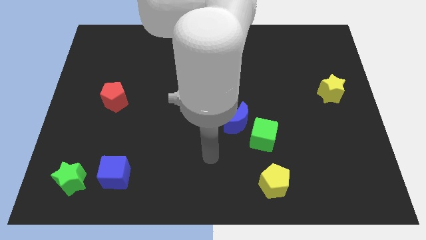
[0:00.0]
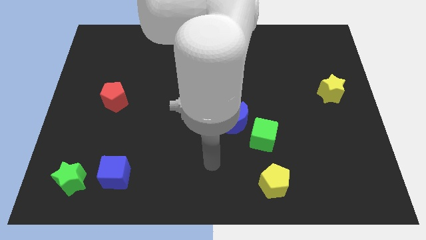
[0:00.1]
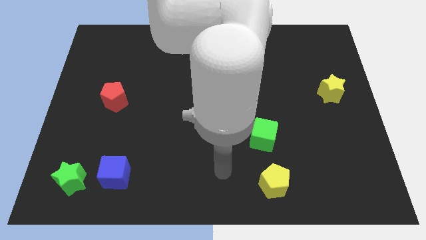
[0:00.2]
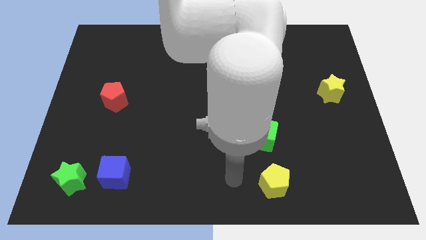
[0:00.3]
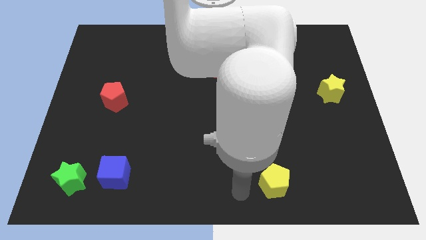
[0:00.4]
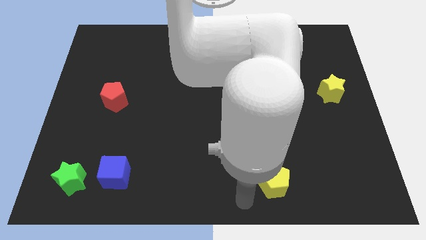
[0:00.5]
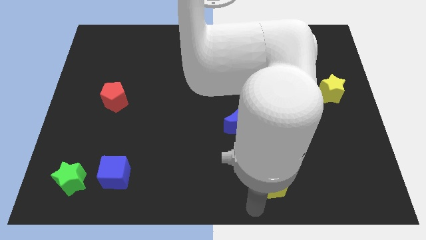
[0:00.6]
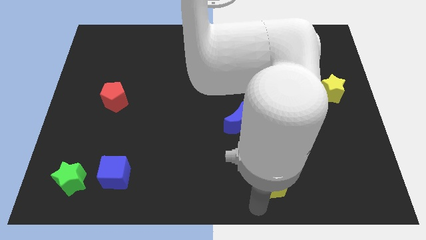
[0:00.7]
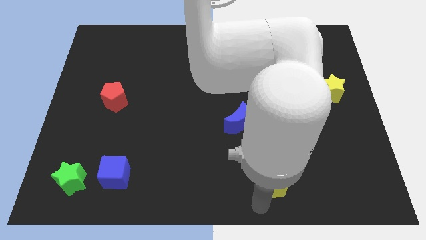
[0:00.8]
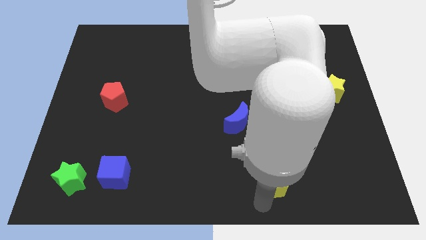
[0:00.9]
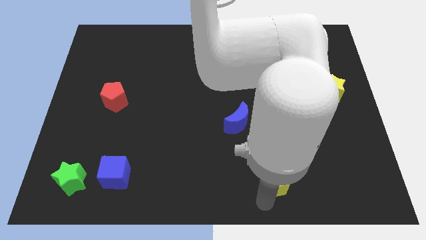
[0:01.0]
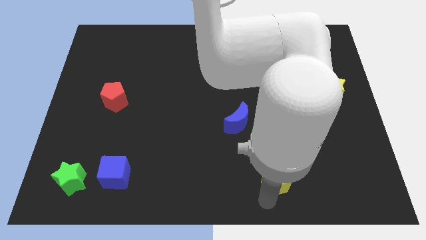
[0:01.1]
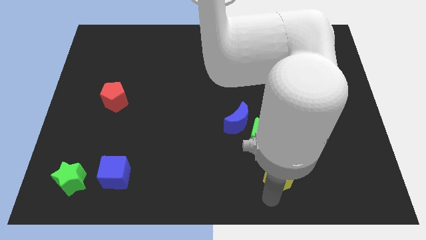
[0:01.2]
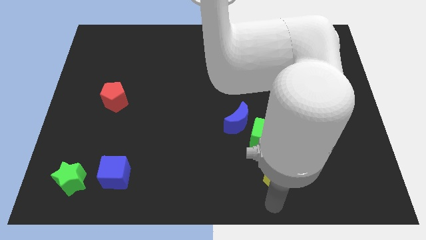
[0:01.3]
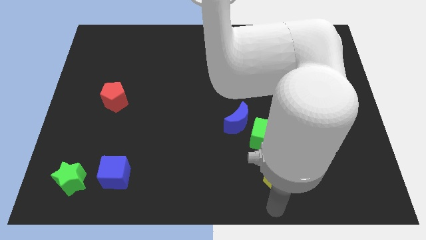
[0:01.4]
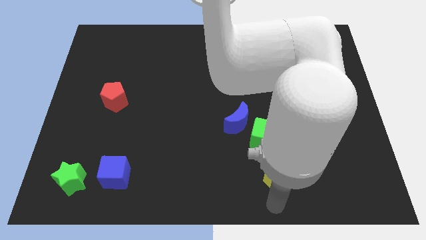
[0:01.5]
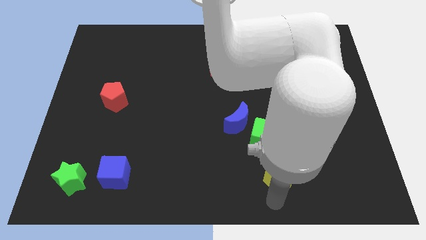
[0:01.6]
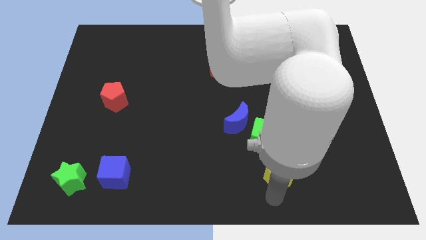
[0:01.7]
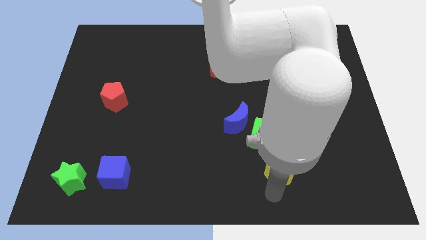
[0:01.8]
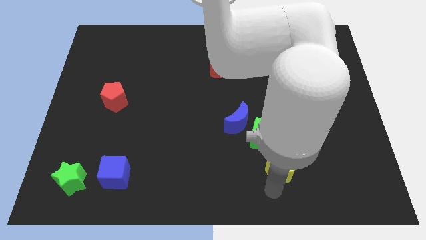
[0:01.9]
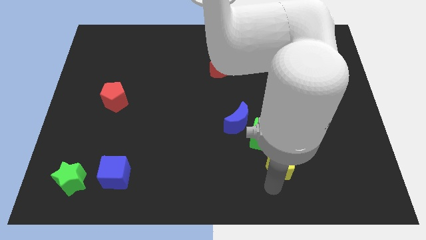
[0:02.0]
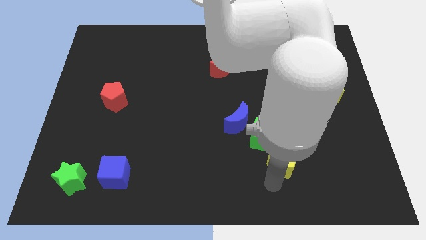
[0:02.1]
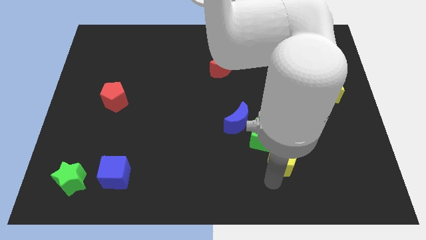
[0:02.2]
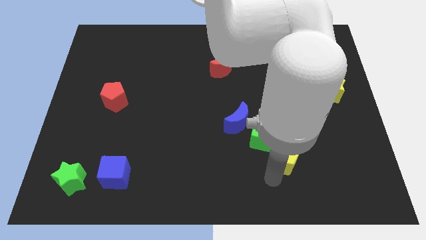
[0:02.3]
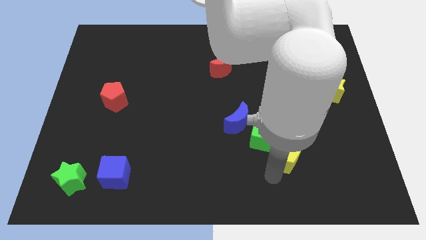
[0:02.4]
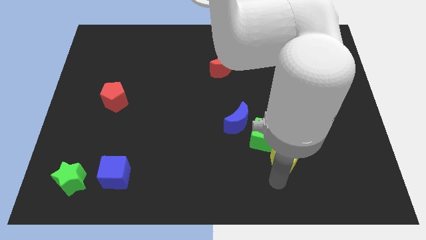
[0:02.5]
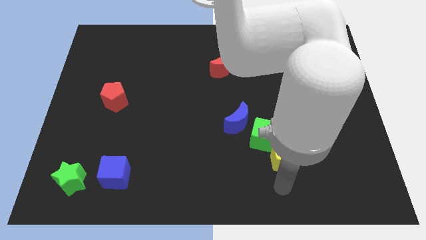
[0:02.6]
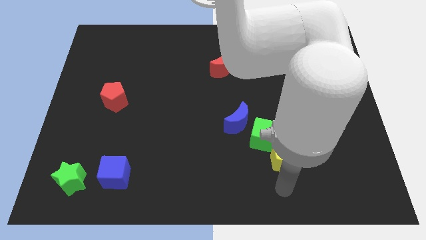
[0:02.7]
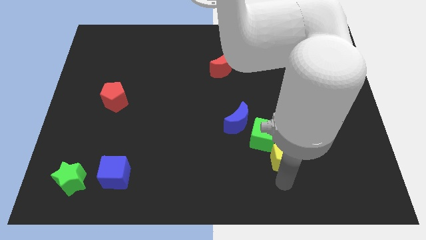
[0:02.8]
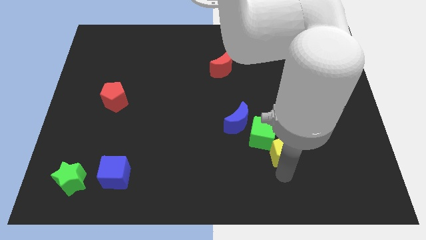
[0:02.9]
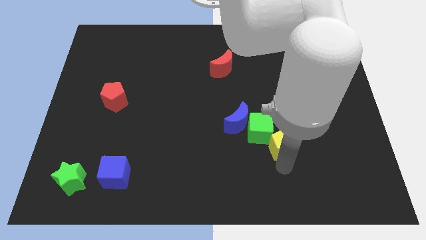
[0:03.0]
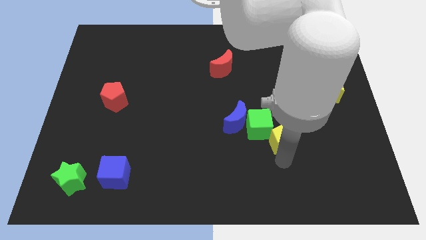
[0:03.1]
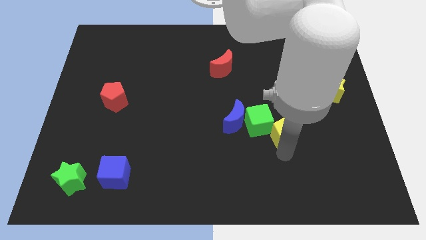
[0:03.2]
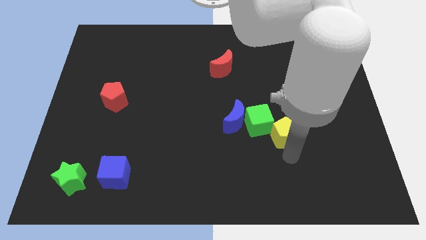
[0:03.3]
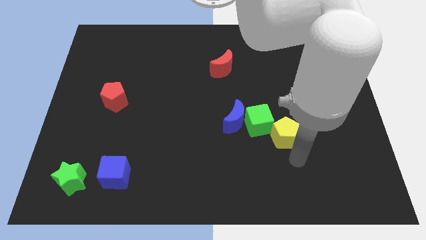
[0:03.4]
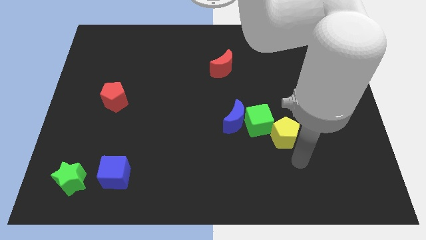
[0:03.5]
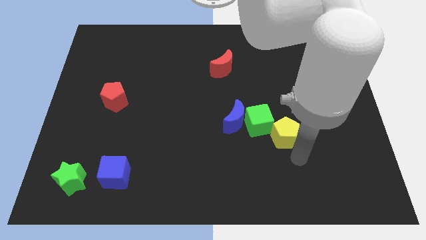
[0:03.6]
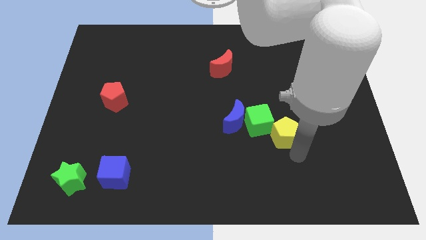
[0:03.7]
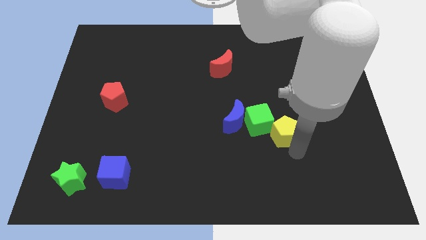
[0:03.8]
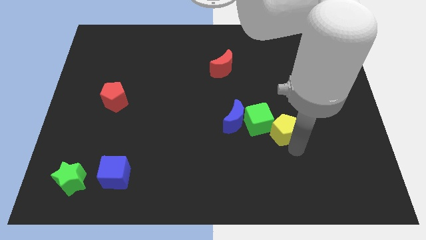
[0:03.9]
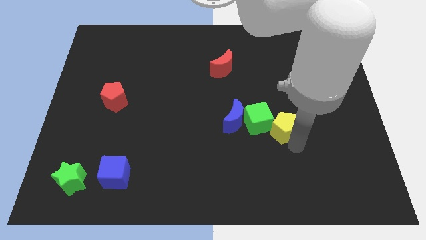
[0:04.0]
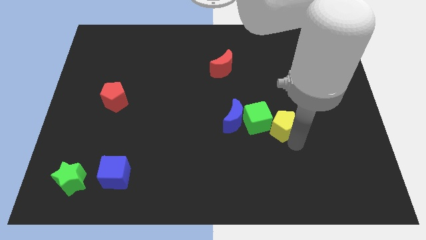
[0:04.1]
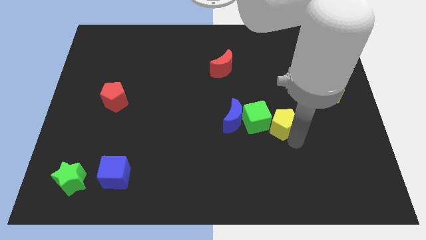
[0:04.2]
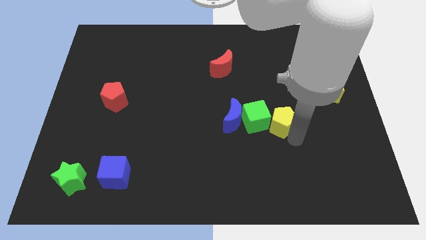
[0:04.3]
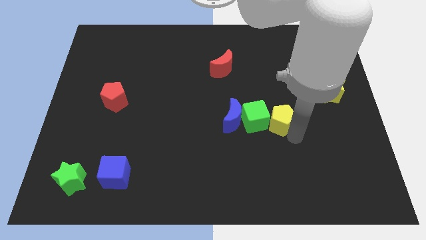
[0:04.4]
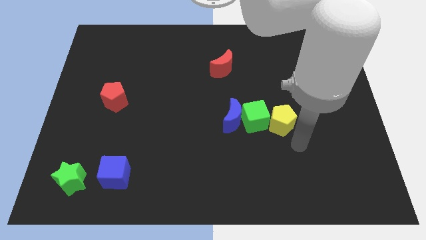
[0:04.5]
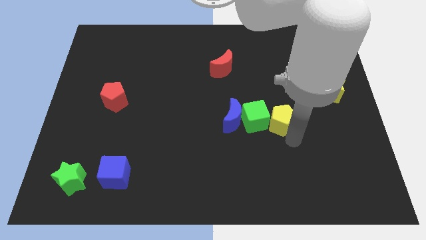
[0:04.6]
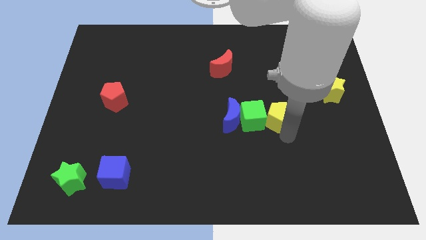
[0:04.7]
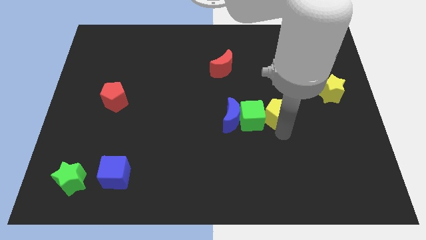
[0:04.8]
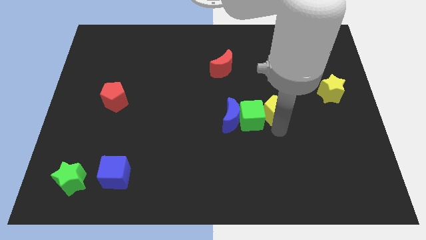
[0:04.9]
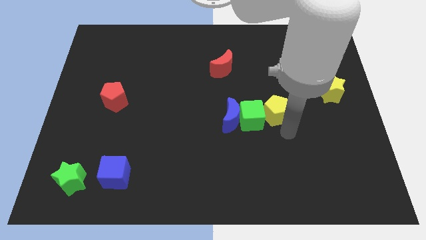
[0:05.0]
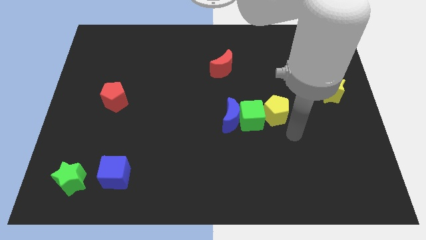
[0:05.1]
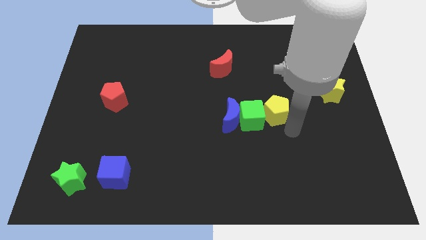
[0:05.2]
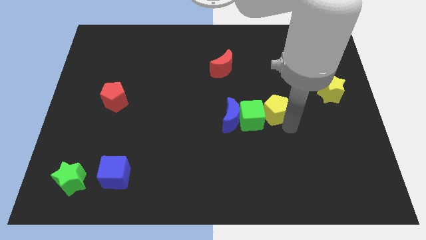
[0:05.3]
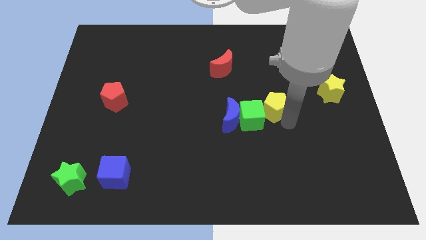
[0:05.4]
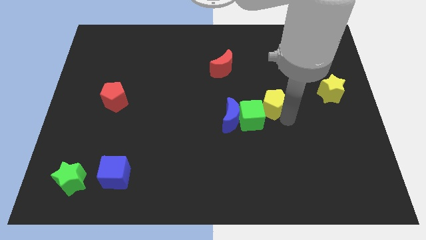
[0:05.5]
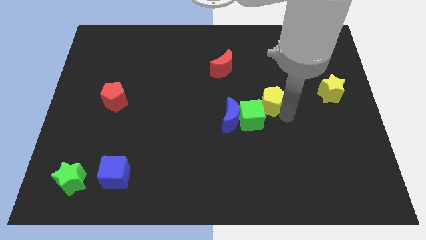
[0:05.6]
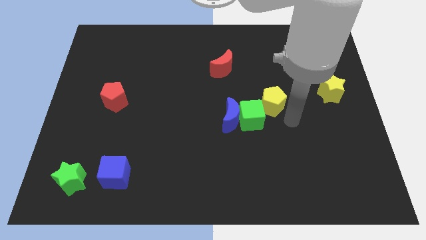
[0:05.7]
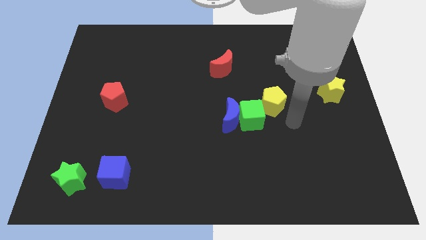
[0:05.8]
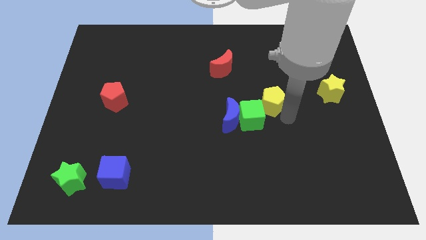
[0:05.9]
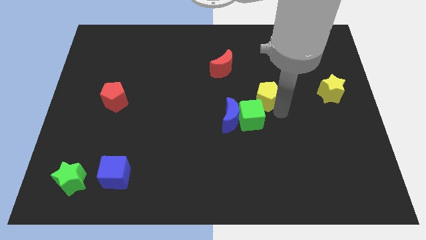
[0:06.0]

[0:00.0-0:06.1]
put the yellow pentagon above the green cube

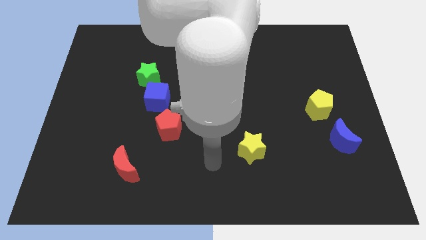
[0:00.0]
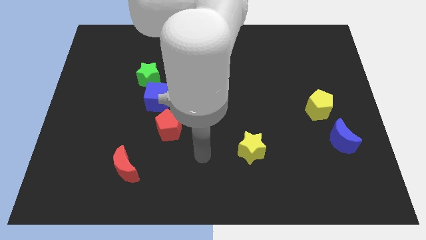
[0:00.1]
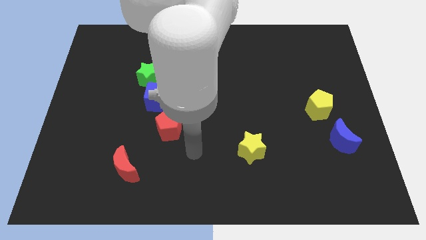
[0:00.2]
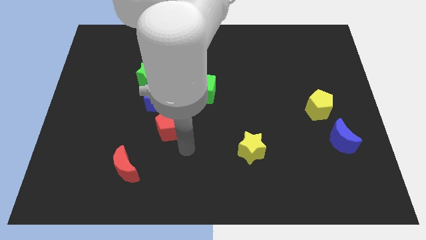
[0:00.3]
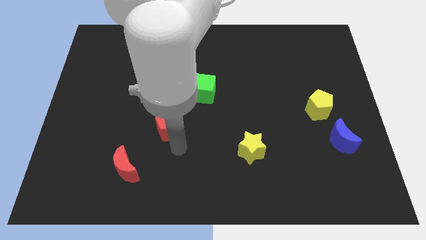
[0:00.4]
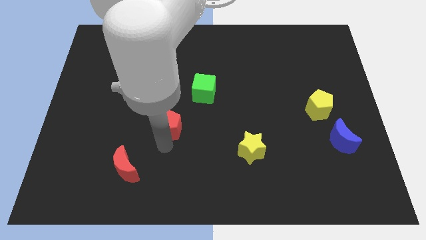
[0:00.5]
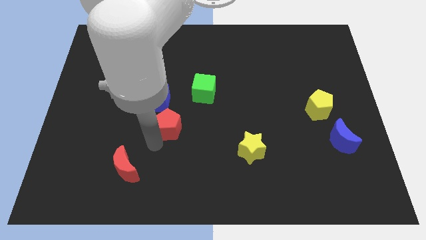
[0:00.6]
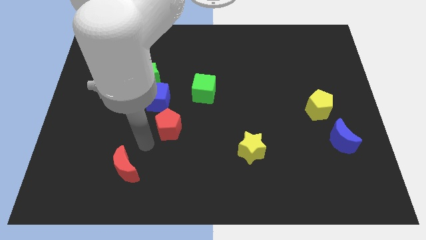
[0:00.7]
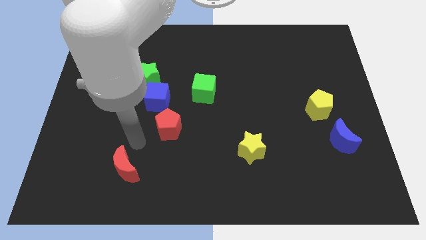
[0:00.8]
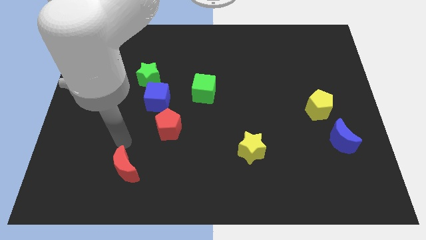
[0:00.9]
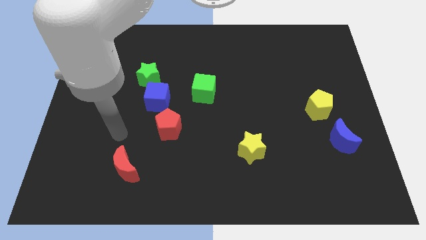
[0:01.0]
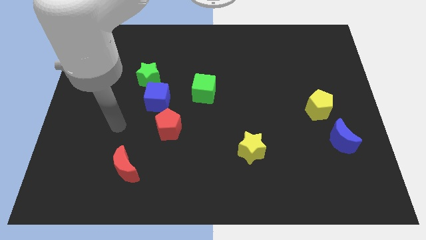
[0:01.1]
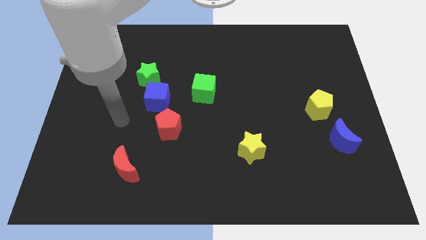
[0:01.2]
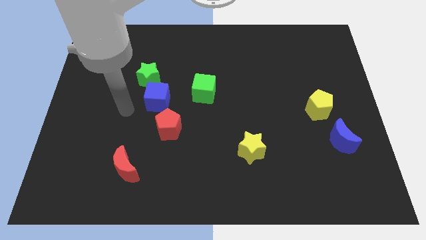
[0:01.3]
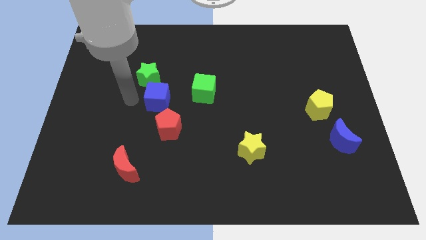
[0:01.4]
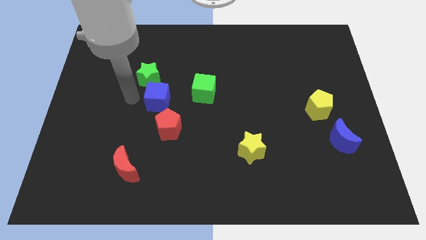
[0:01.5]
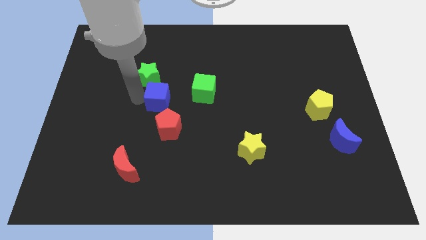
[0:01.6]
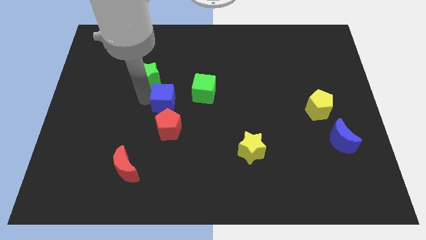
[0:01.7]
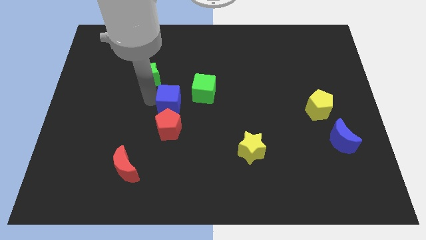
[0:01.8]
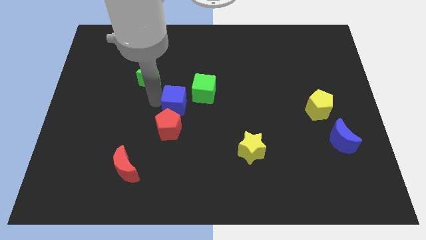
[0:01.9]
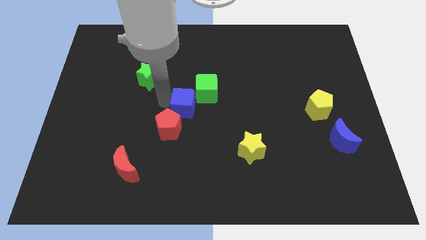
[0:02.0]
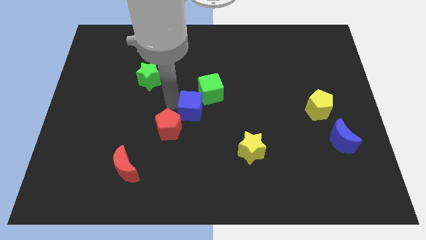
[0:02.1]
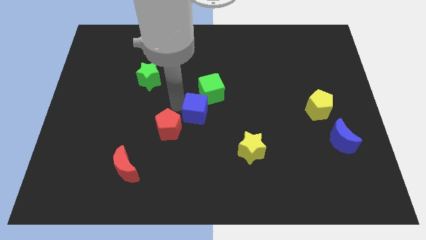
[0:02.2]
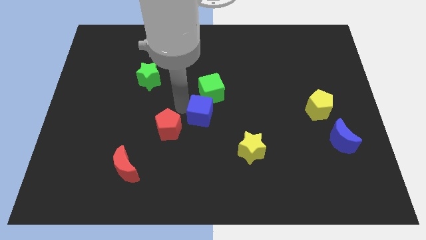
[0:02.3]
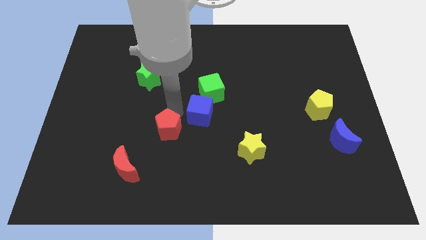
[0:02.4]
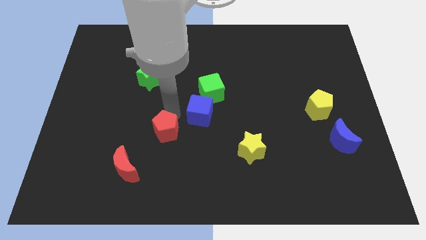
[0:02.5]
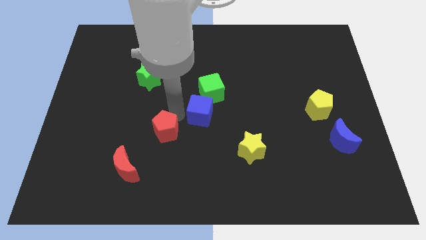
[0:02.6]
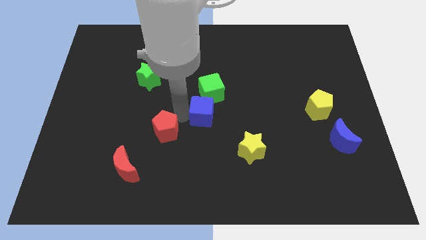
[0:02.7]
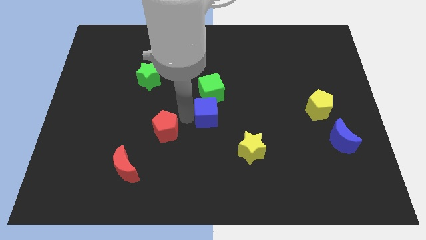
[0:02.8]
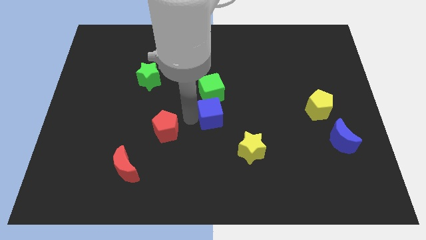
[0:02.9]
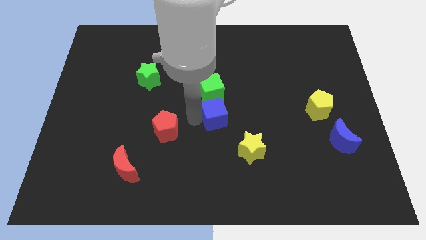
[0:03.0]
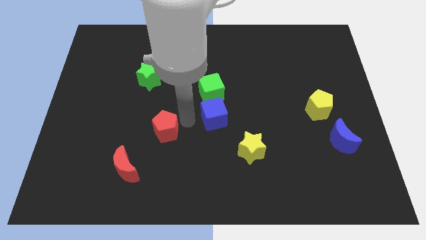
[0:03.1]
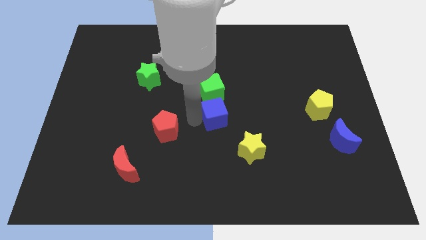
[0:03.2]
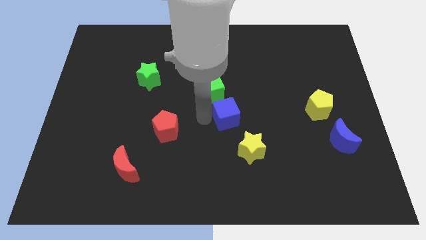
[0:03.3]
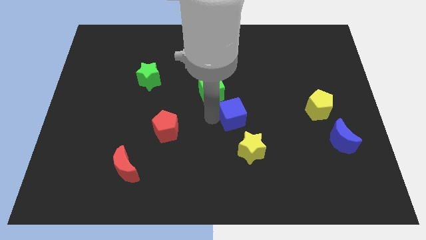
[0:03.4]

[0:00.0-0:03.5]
push the blue cube to the top side of the yellow star
